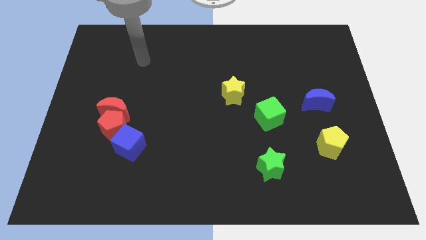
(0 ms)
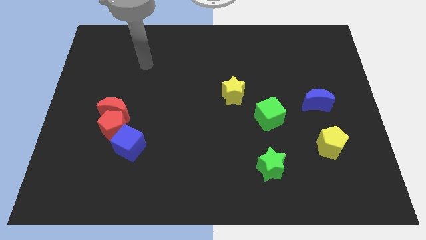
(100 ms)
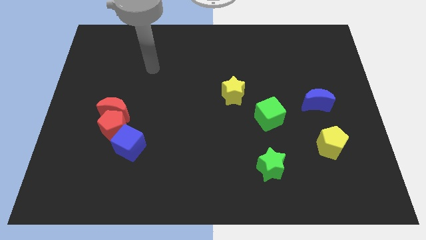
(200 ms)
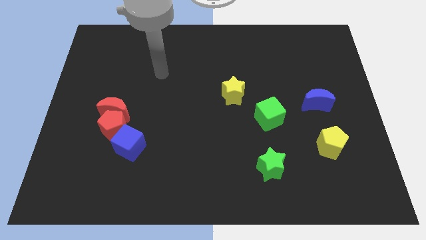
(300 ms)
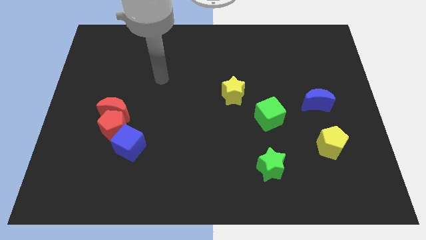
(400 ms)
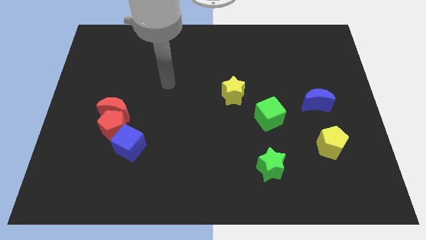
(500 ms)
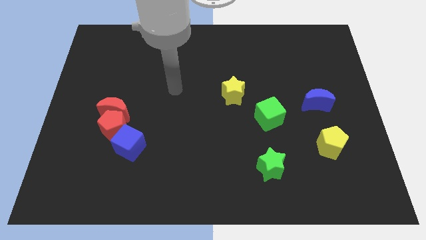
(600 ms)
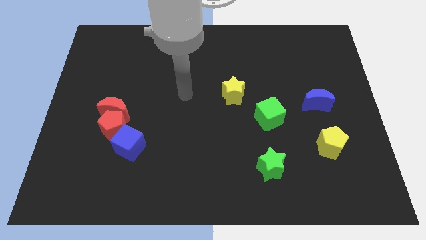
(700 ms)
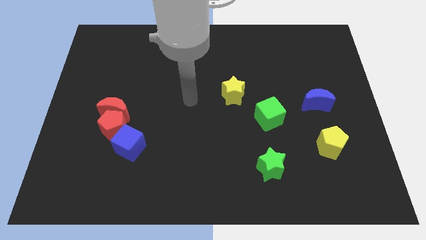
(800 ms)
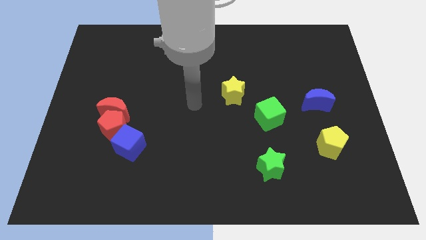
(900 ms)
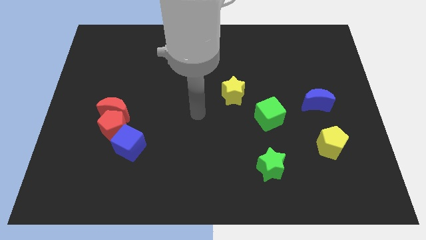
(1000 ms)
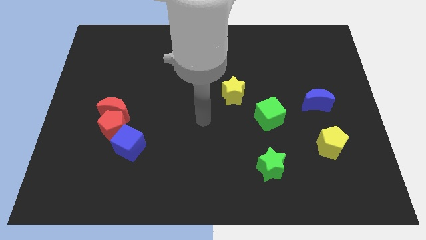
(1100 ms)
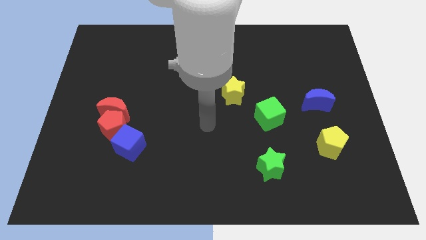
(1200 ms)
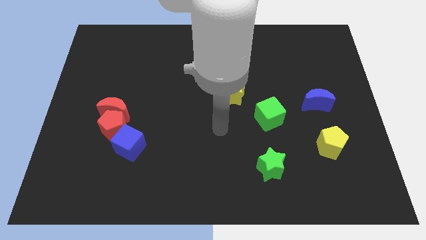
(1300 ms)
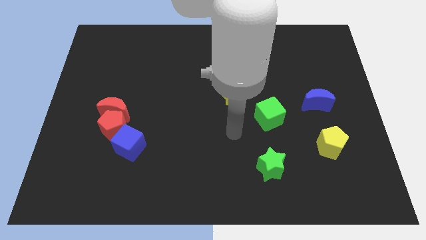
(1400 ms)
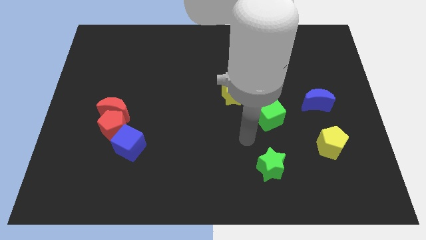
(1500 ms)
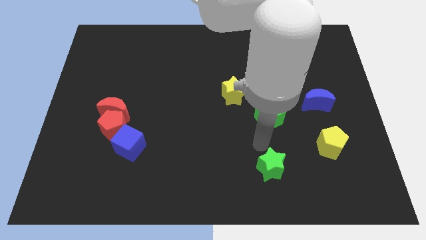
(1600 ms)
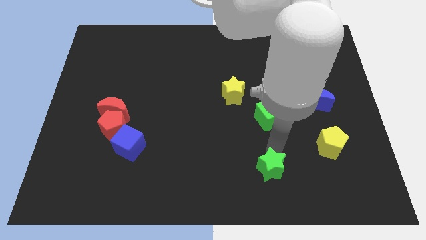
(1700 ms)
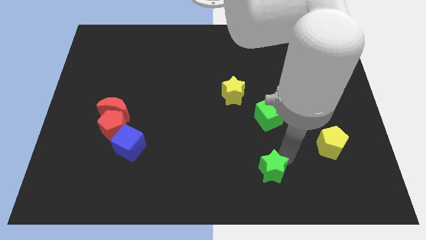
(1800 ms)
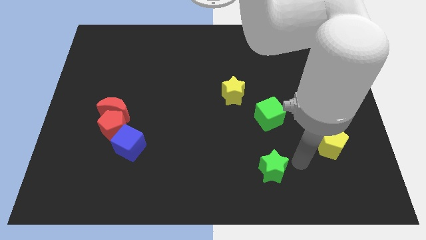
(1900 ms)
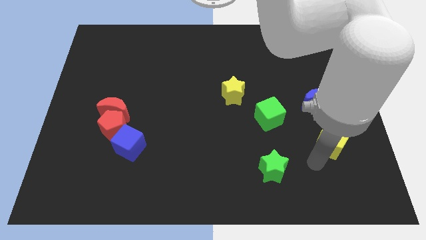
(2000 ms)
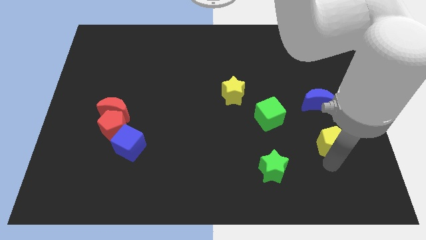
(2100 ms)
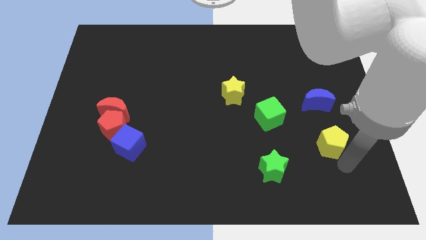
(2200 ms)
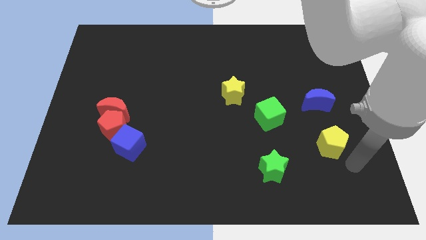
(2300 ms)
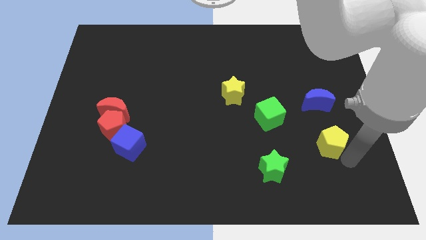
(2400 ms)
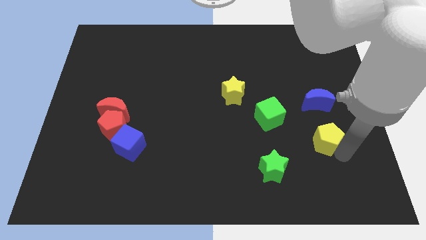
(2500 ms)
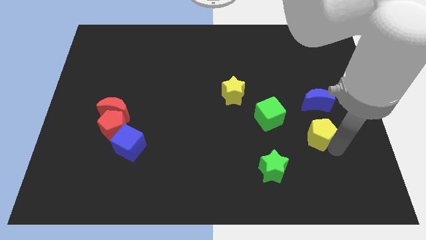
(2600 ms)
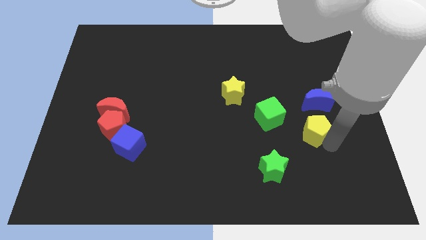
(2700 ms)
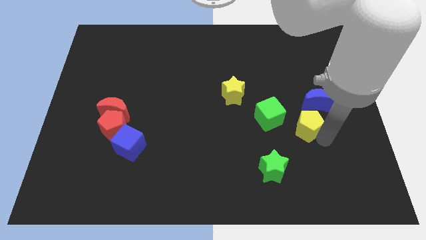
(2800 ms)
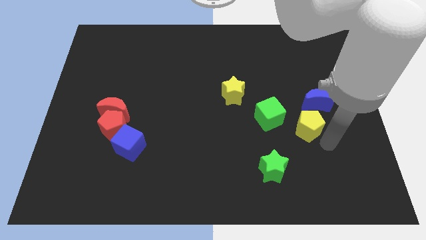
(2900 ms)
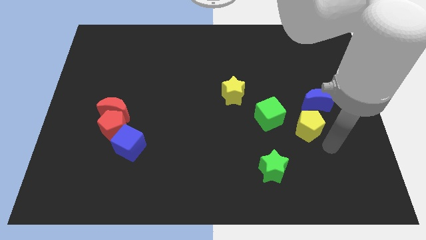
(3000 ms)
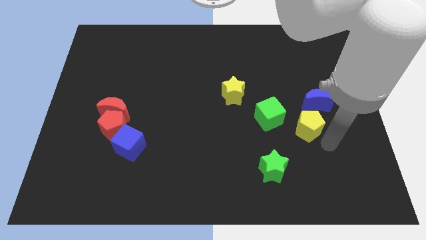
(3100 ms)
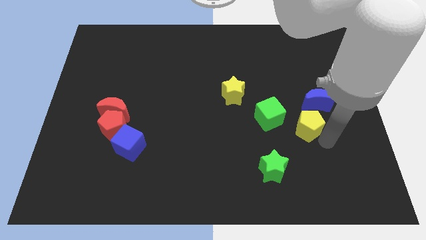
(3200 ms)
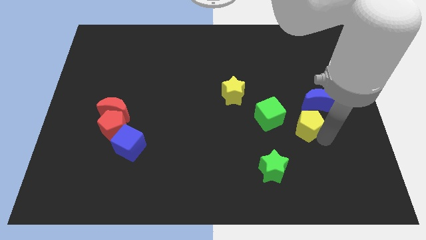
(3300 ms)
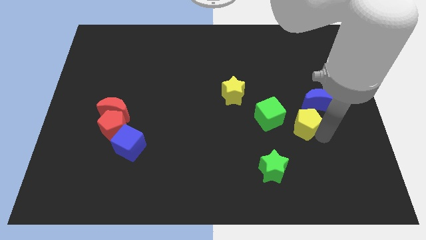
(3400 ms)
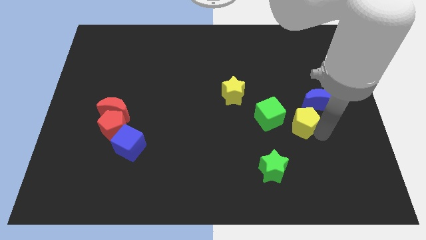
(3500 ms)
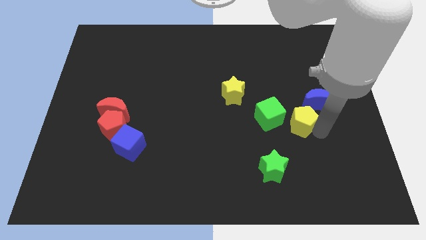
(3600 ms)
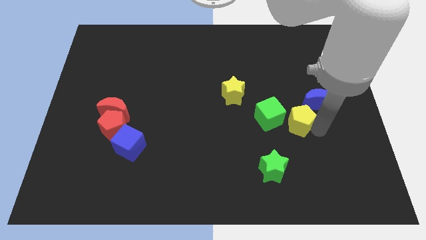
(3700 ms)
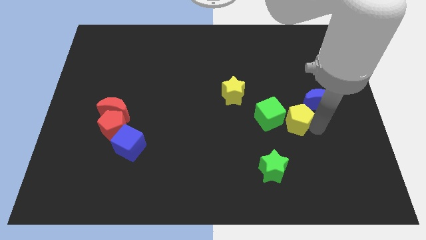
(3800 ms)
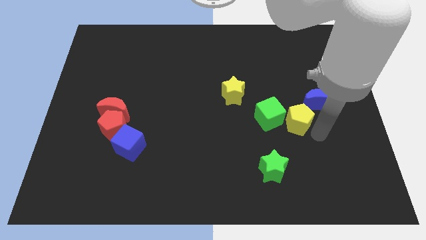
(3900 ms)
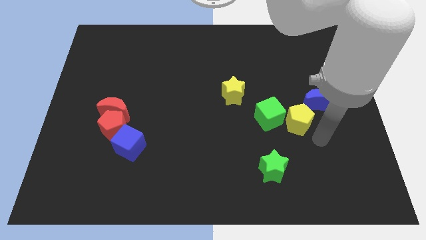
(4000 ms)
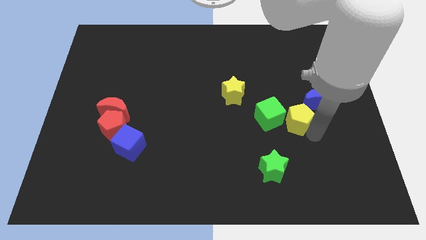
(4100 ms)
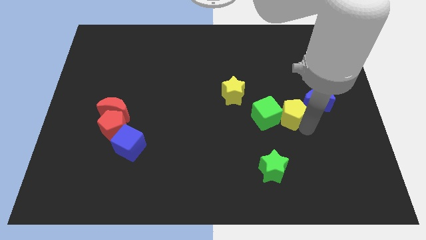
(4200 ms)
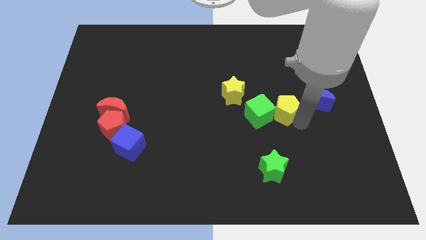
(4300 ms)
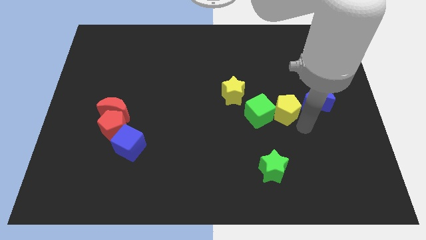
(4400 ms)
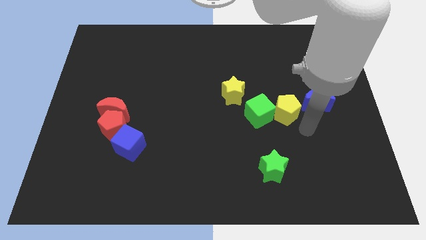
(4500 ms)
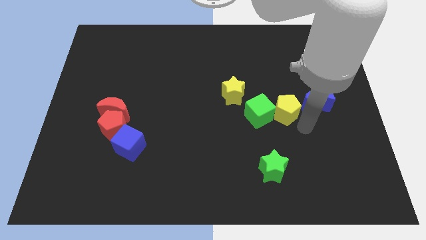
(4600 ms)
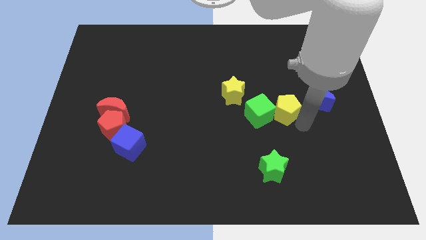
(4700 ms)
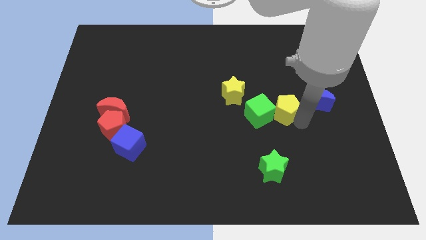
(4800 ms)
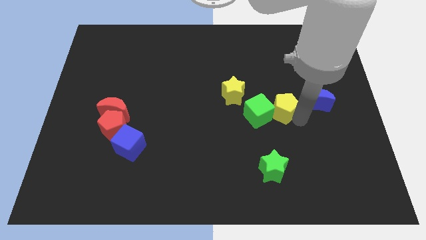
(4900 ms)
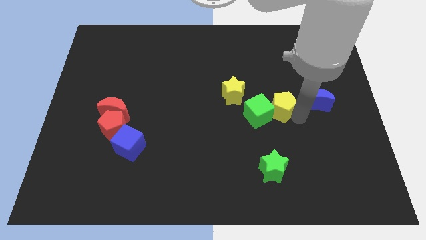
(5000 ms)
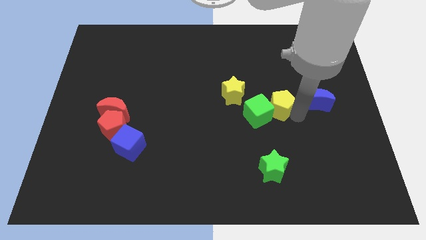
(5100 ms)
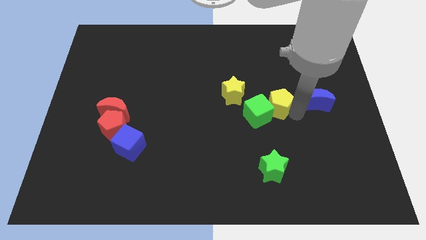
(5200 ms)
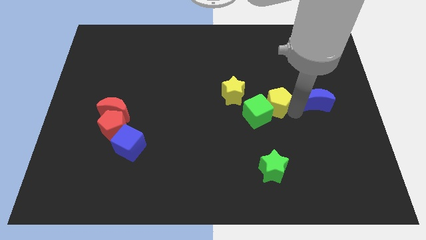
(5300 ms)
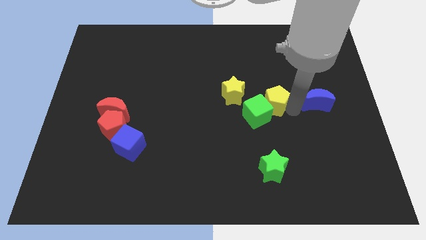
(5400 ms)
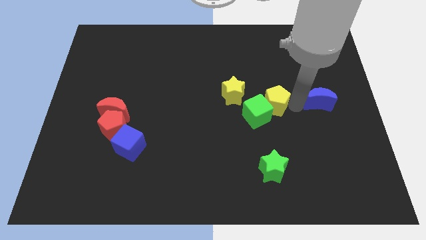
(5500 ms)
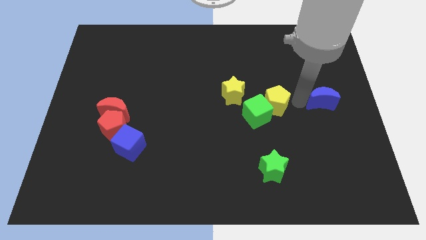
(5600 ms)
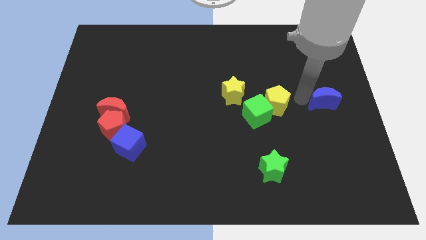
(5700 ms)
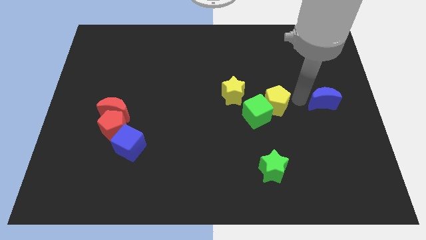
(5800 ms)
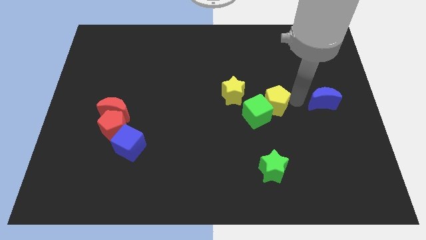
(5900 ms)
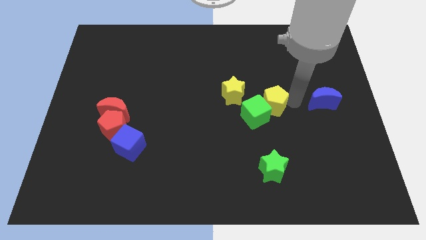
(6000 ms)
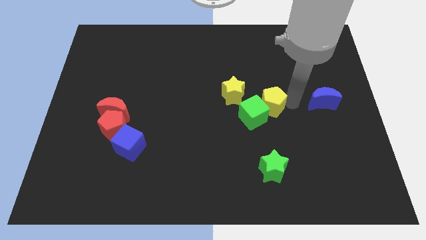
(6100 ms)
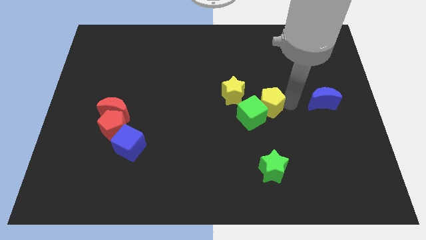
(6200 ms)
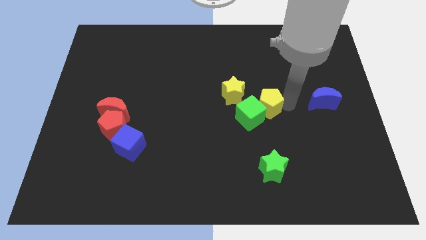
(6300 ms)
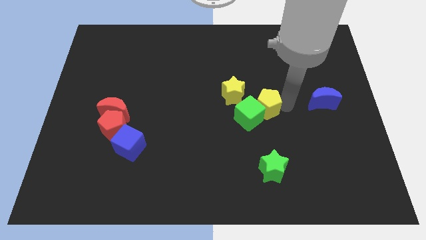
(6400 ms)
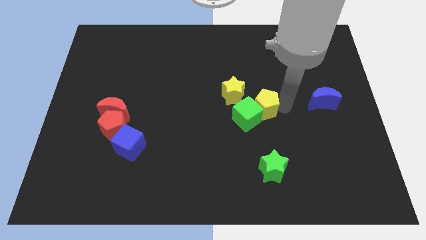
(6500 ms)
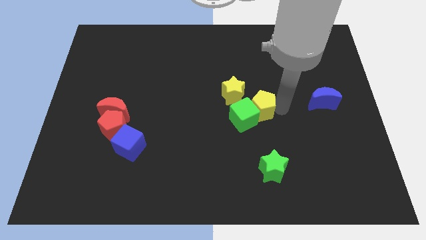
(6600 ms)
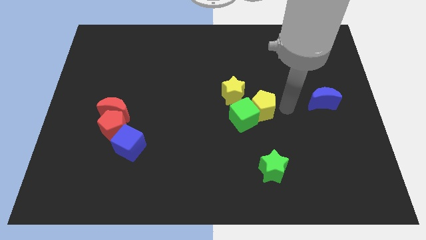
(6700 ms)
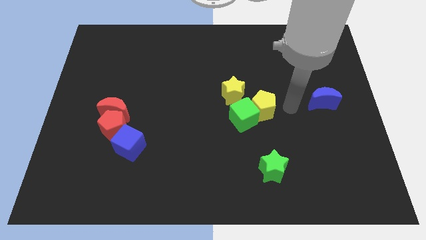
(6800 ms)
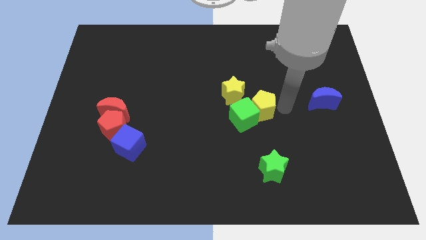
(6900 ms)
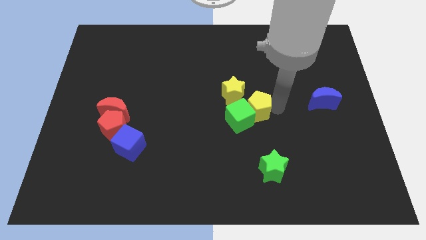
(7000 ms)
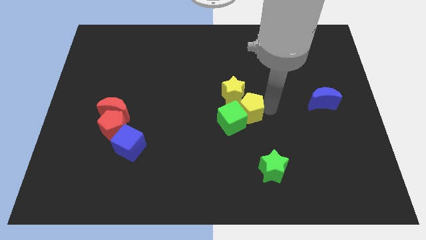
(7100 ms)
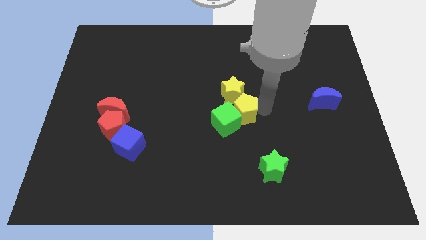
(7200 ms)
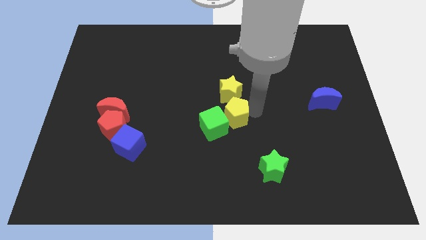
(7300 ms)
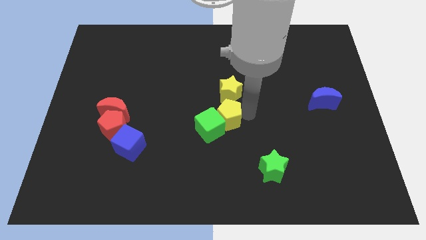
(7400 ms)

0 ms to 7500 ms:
put the yellow pentagon to the bottom left of the yellow star
